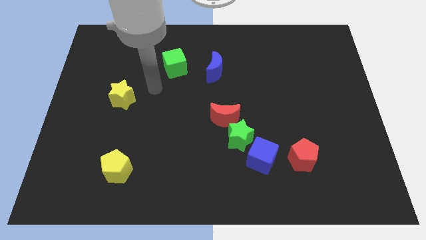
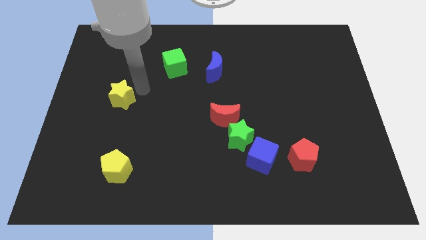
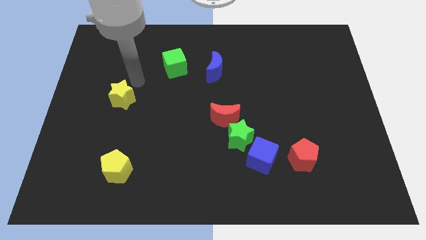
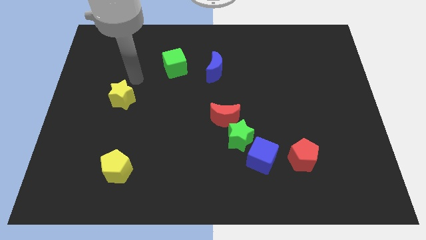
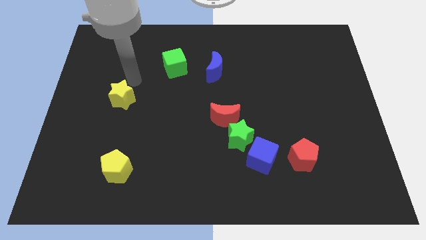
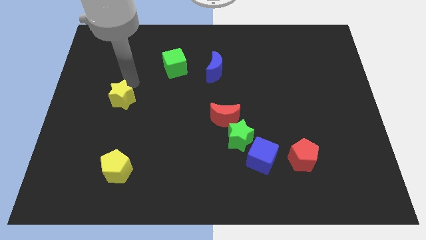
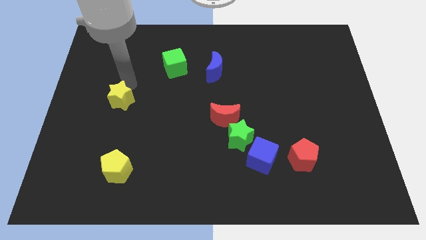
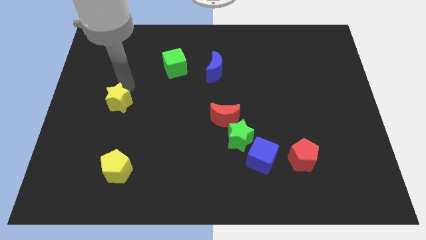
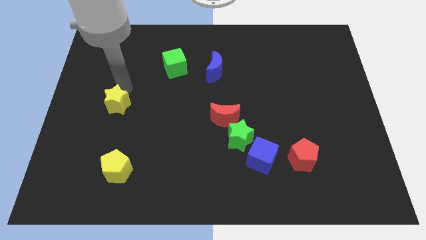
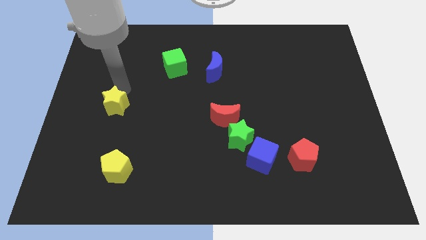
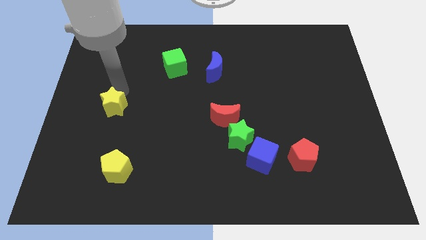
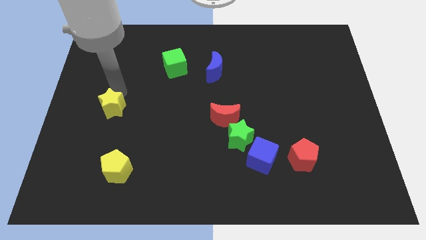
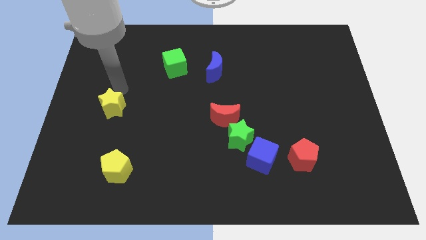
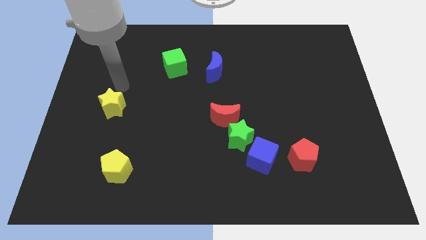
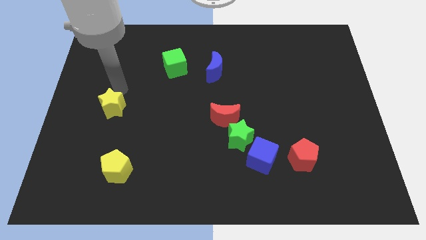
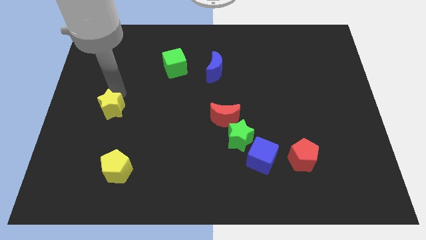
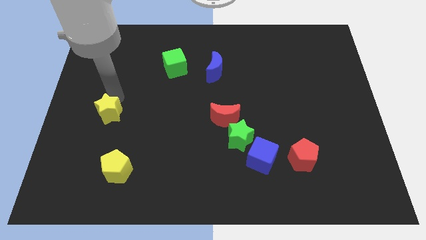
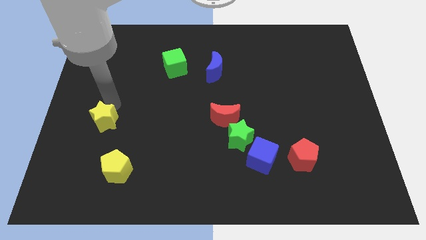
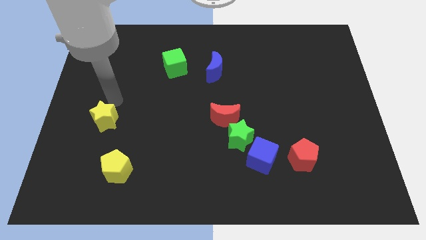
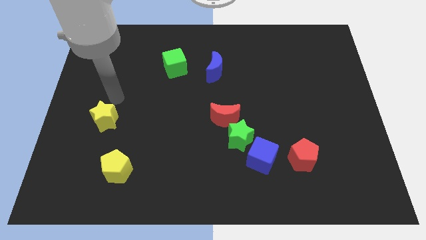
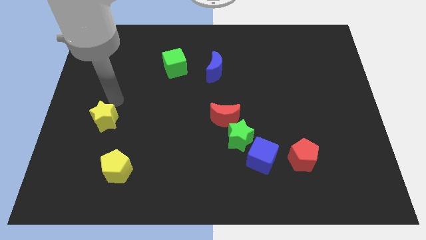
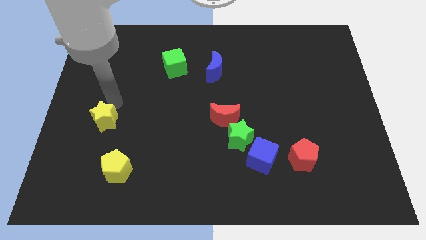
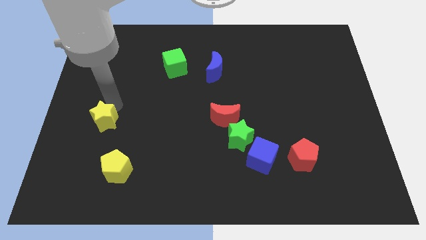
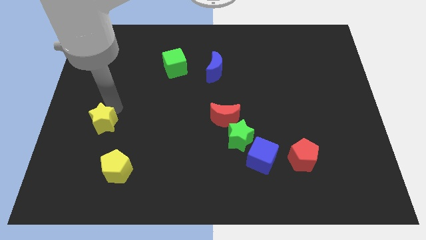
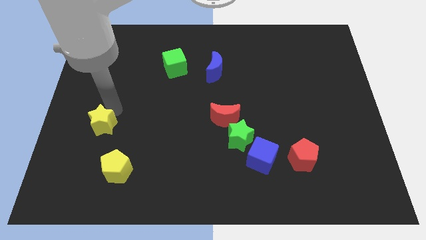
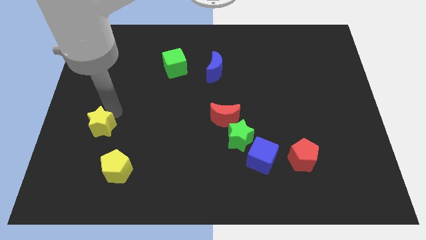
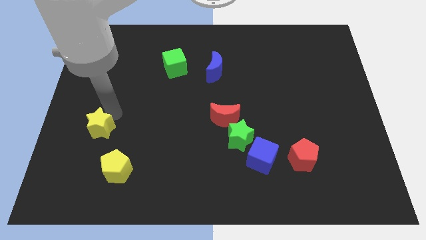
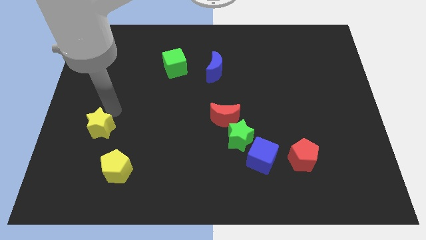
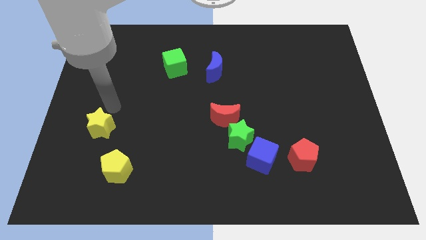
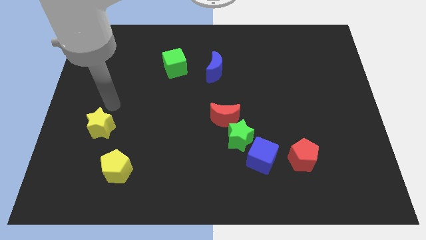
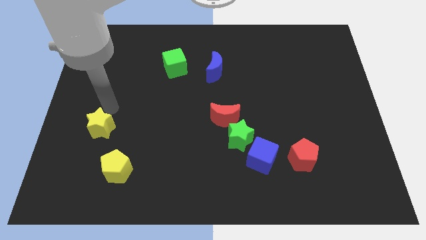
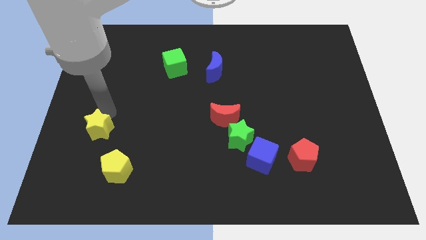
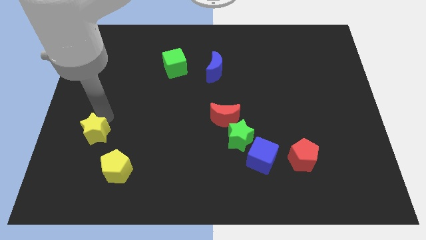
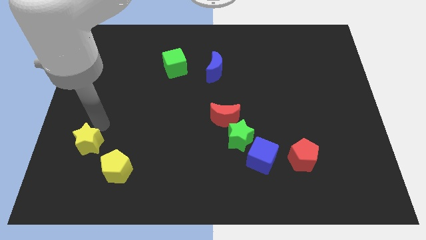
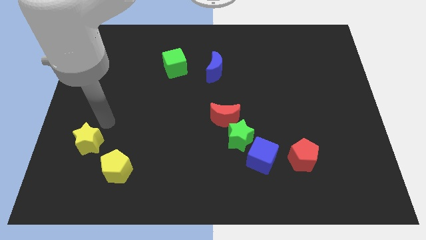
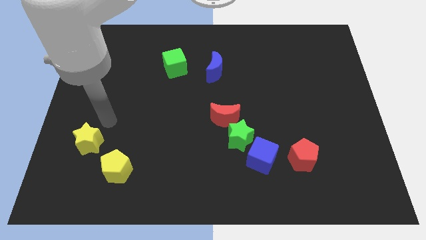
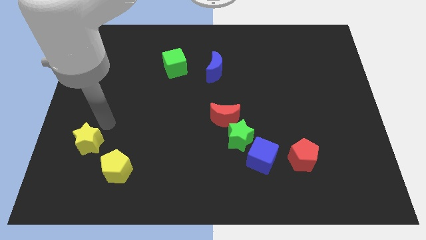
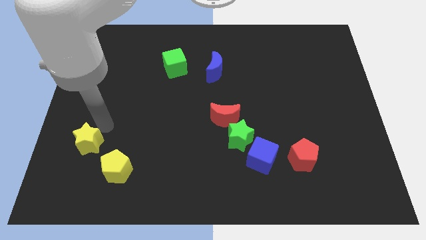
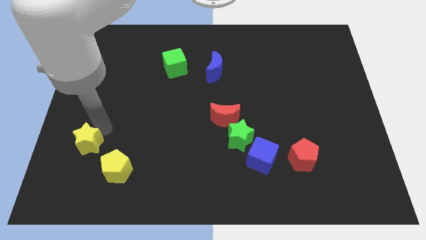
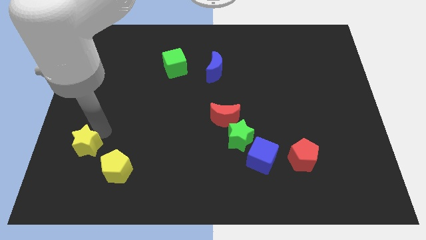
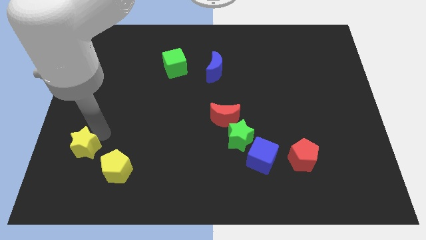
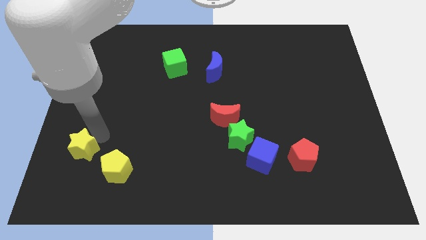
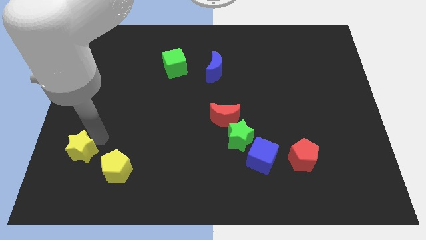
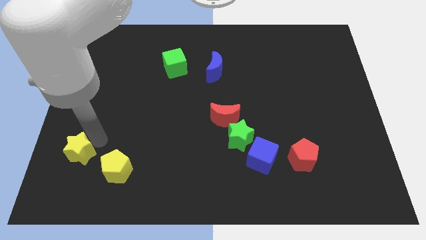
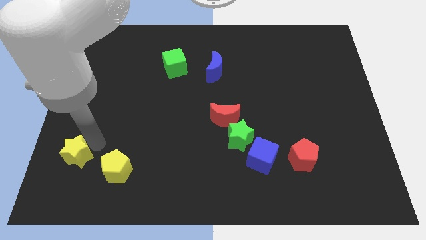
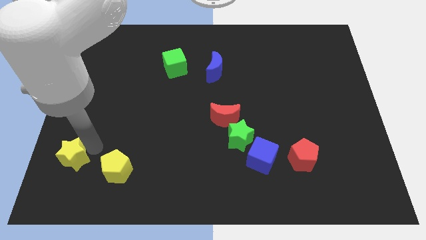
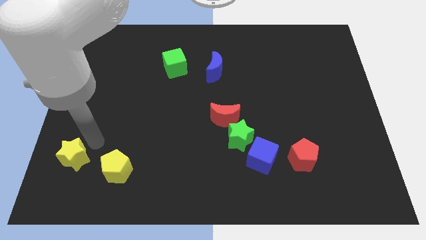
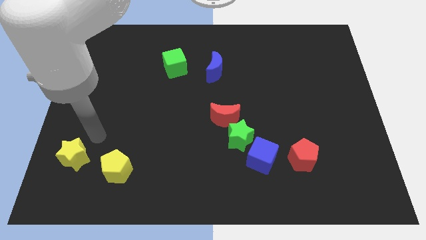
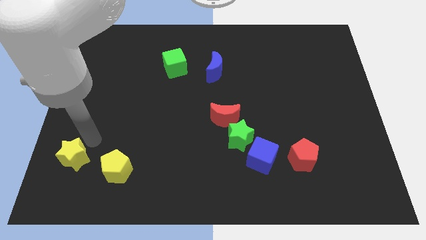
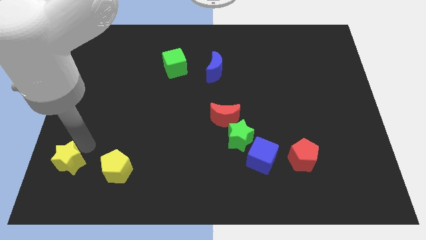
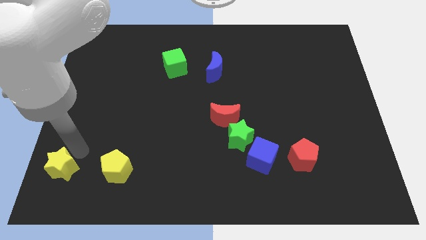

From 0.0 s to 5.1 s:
push the yellow star to the bottom left corner

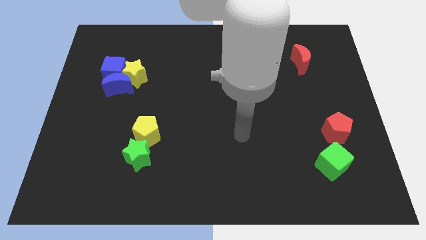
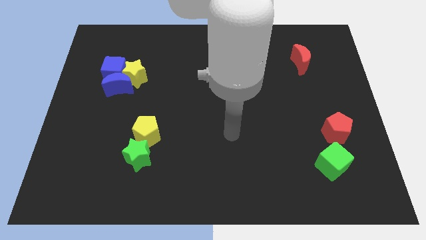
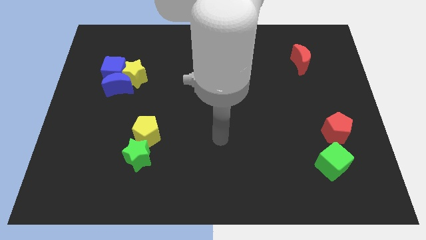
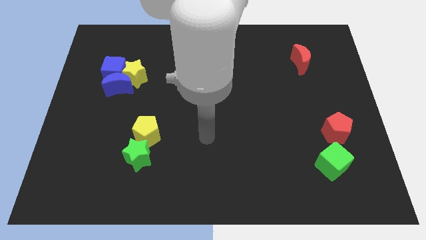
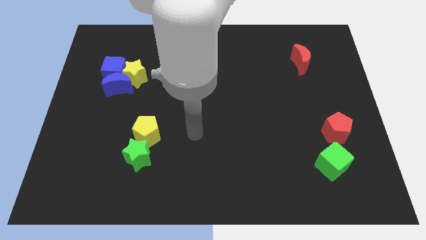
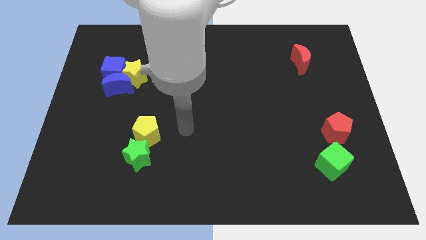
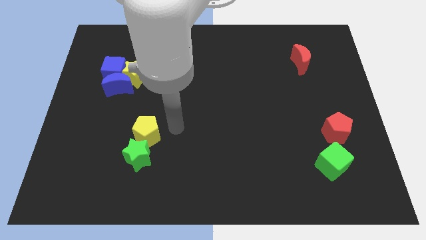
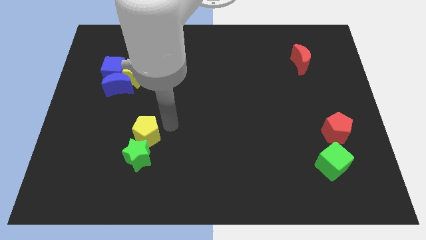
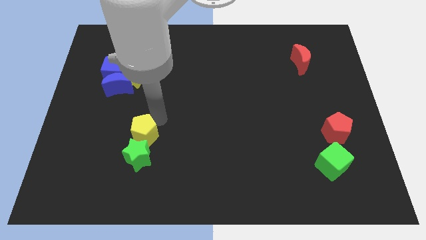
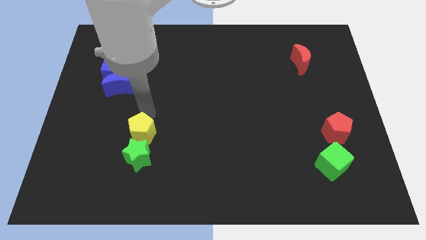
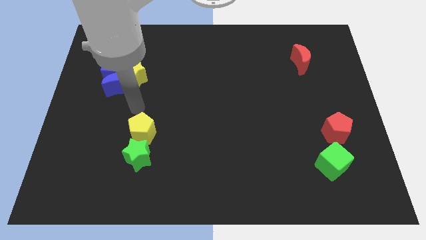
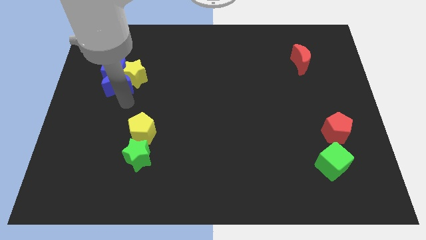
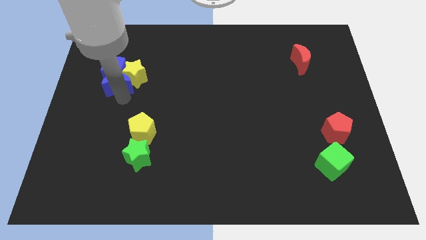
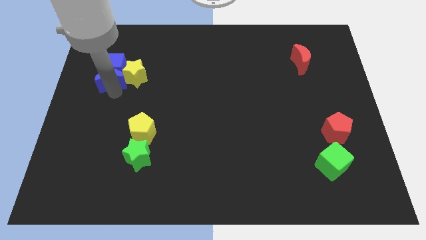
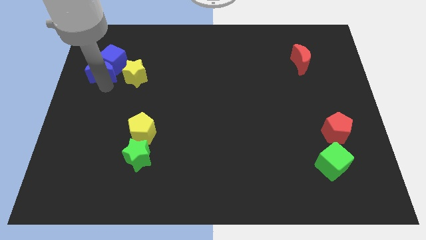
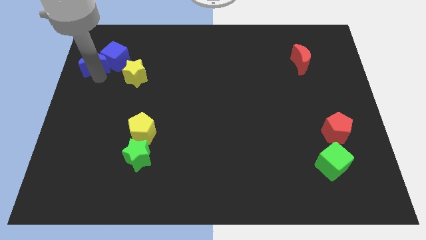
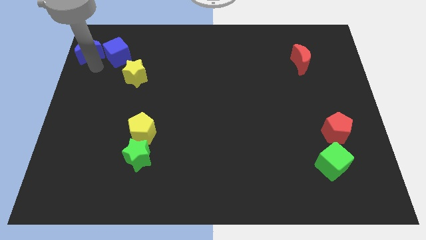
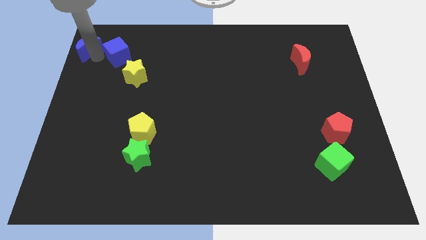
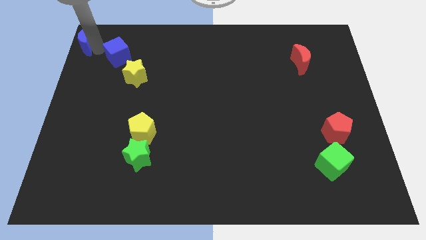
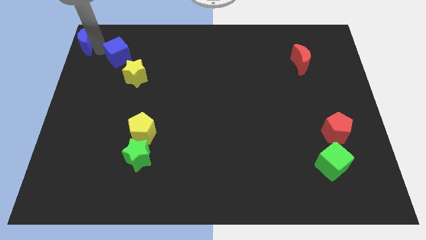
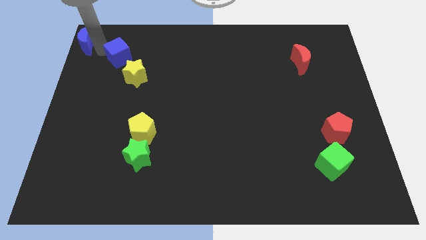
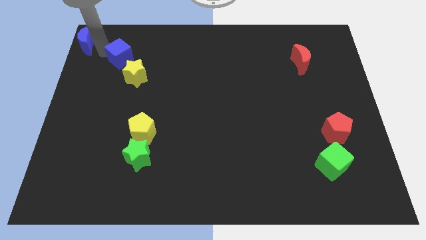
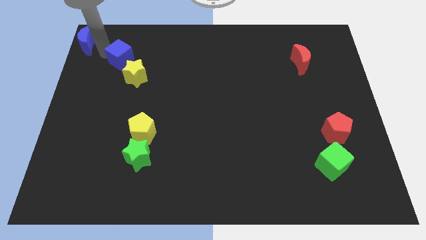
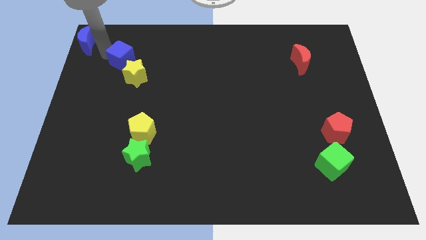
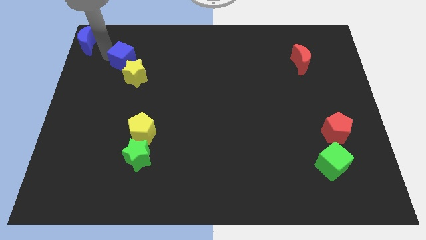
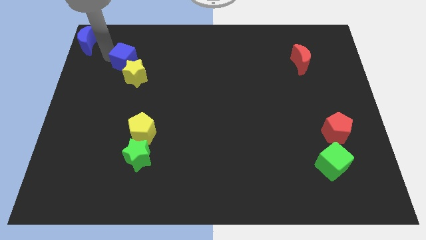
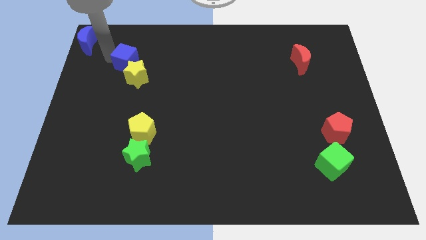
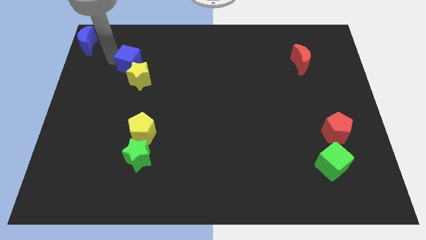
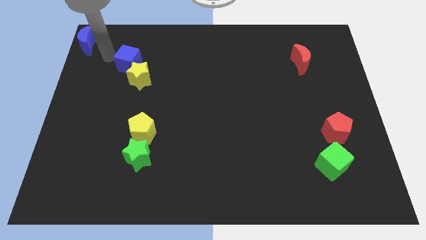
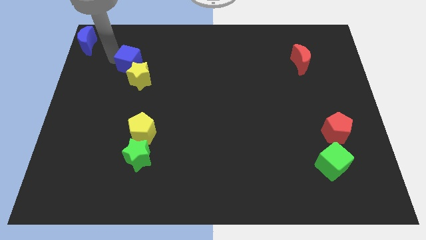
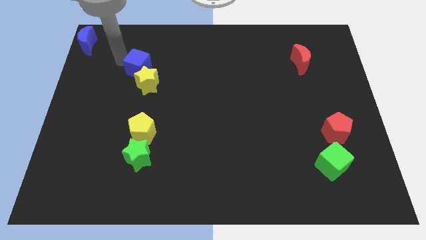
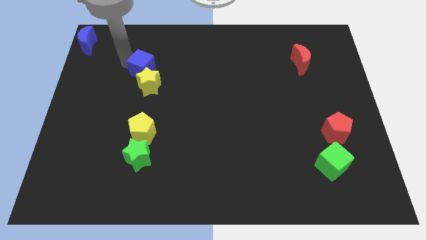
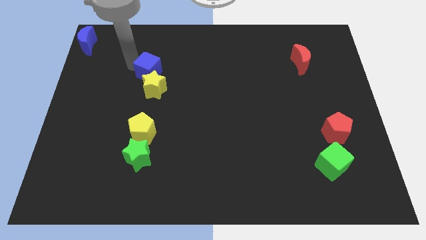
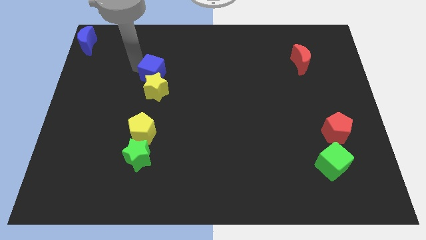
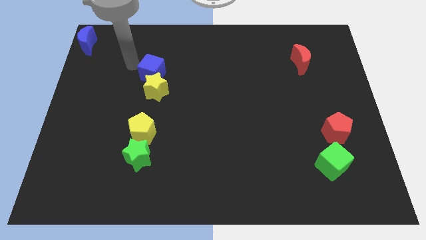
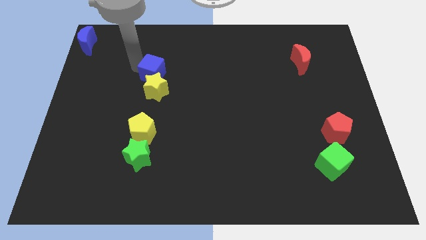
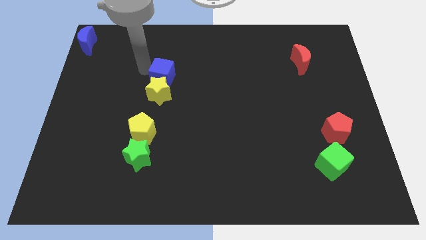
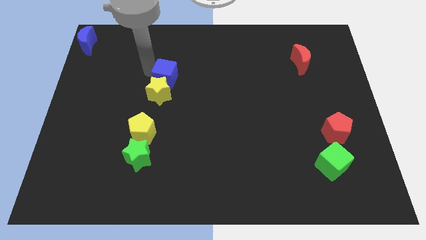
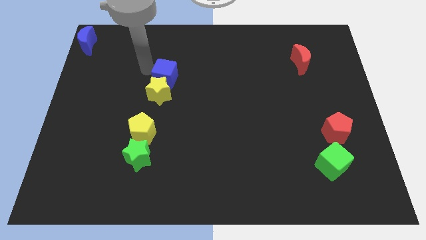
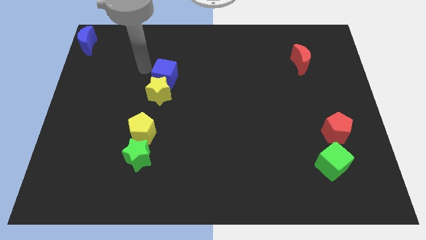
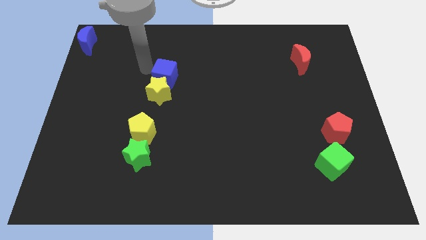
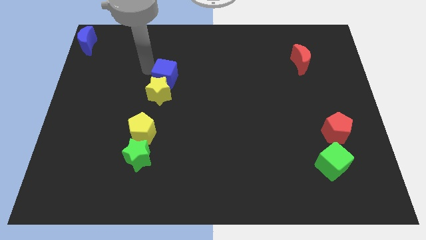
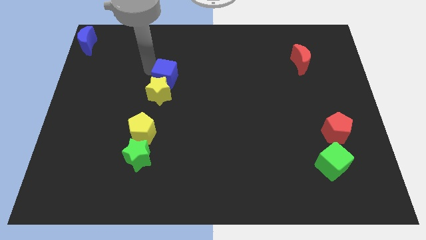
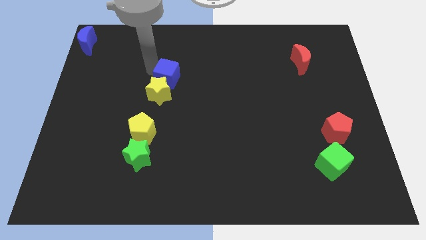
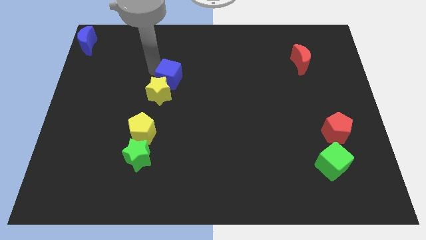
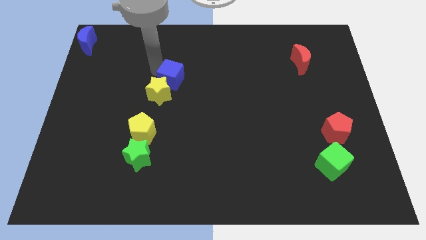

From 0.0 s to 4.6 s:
move the blue cube to the middle of the board
